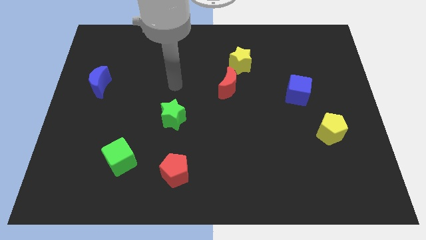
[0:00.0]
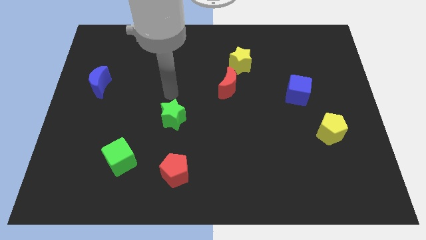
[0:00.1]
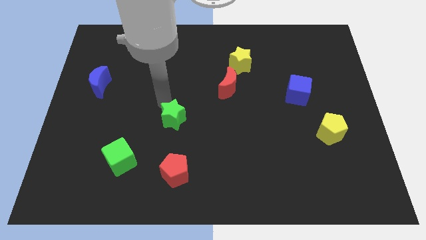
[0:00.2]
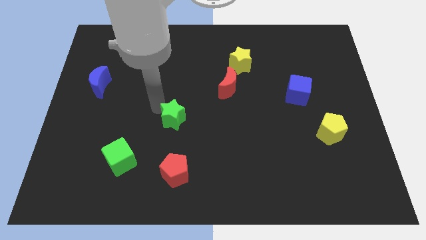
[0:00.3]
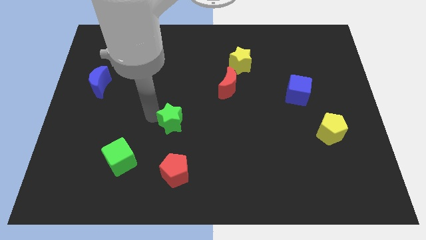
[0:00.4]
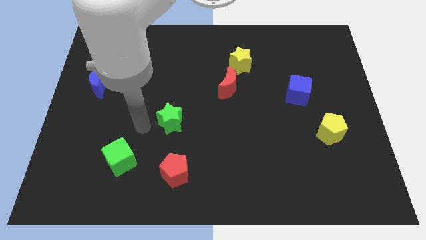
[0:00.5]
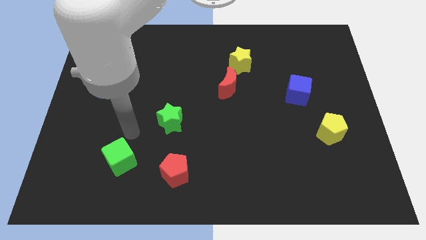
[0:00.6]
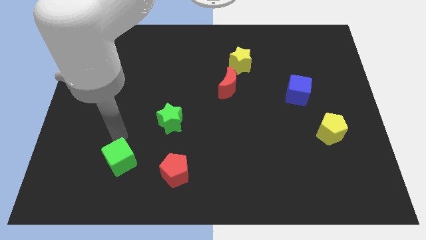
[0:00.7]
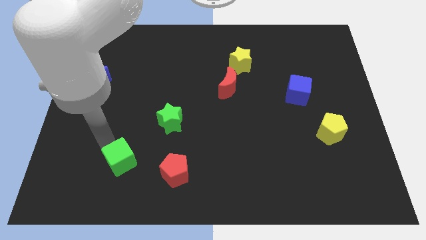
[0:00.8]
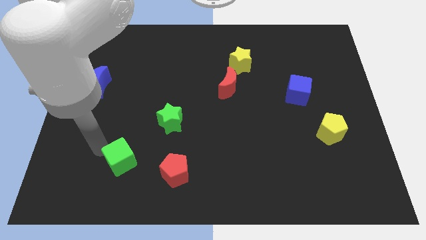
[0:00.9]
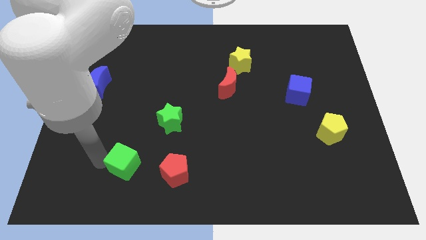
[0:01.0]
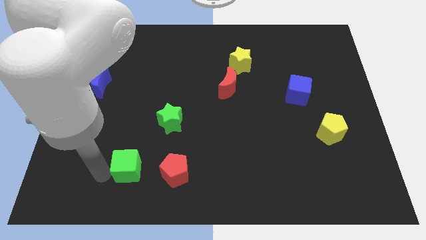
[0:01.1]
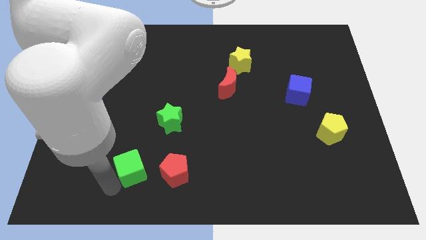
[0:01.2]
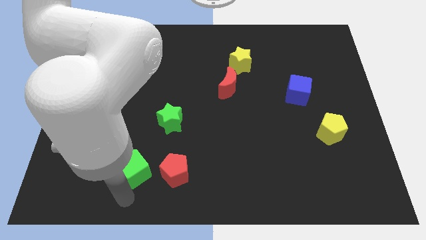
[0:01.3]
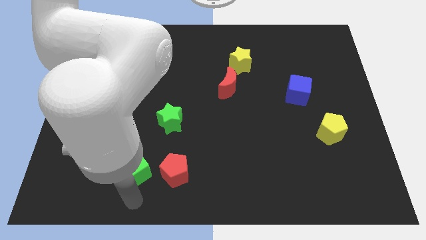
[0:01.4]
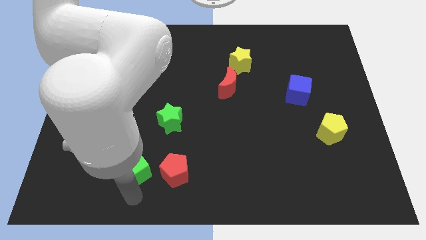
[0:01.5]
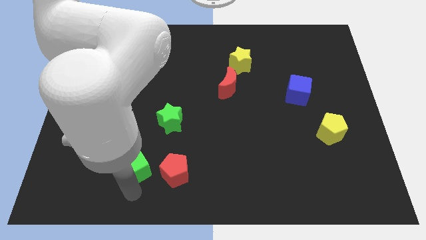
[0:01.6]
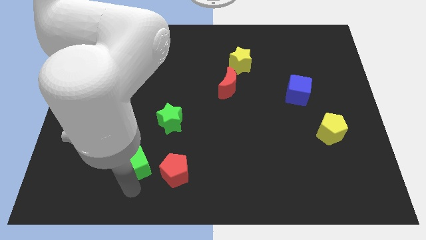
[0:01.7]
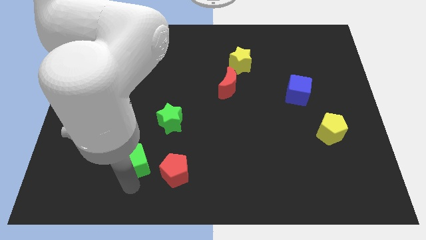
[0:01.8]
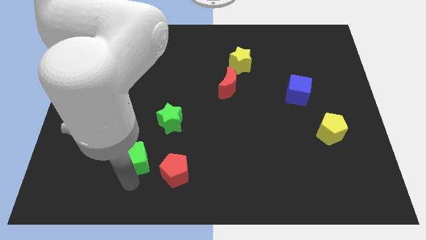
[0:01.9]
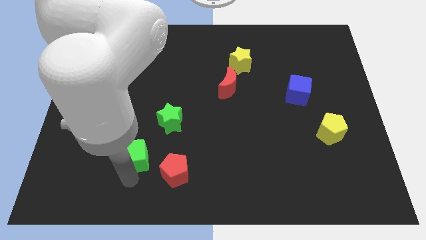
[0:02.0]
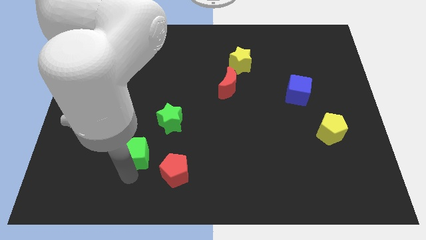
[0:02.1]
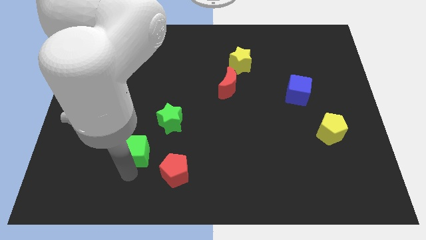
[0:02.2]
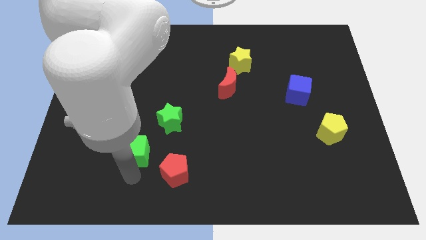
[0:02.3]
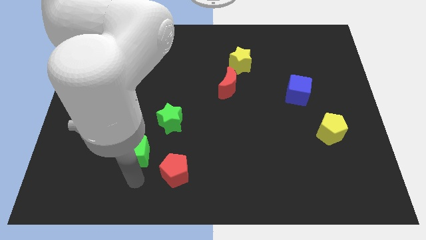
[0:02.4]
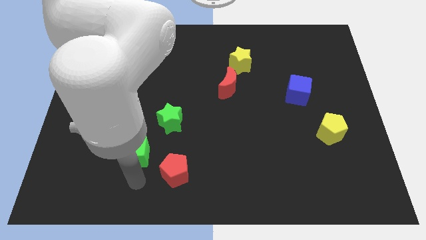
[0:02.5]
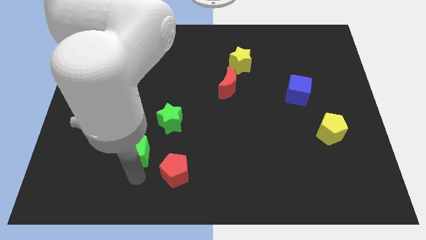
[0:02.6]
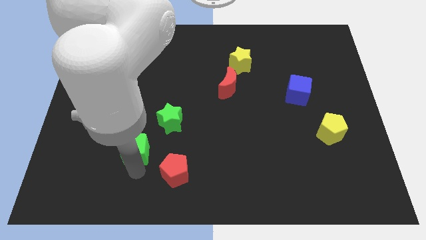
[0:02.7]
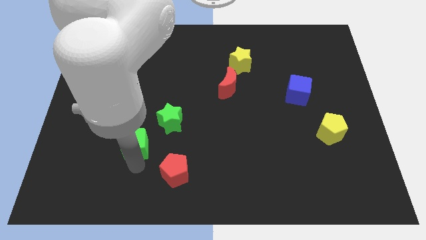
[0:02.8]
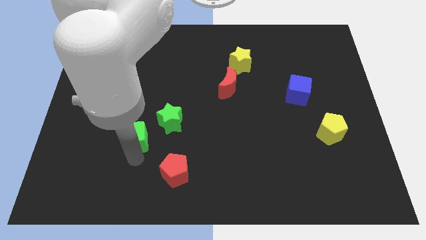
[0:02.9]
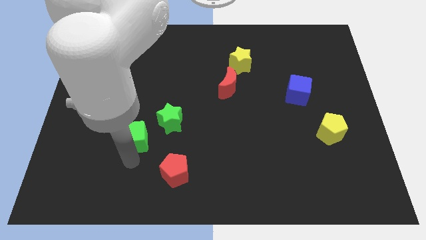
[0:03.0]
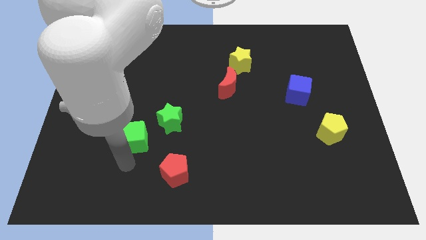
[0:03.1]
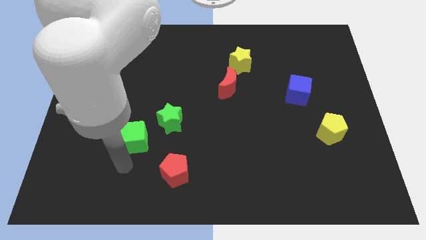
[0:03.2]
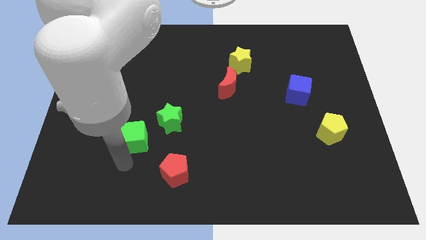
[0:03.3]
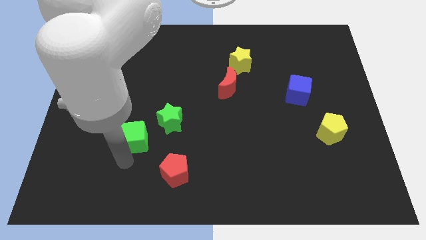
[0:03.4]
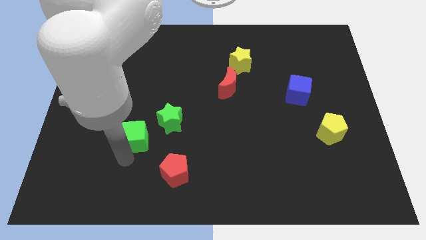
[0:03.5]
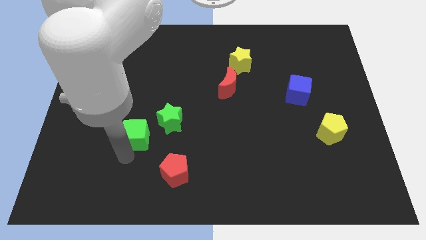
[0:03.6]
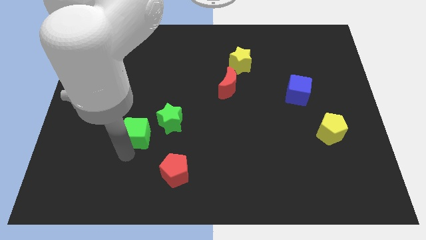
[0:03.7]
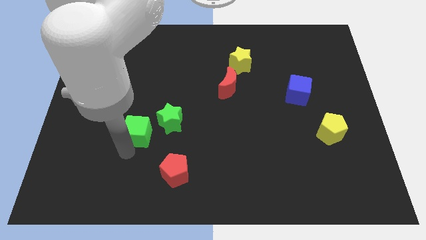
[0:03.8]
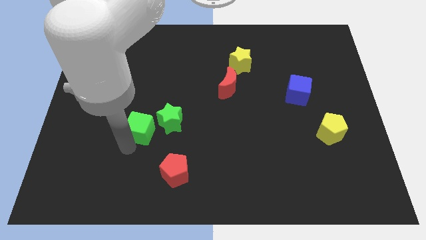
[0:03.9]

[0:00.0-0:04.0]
move the green cube somewhat upwards and to the right

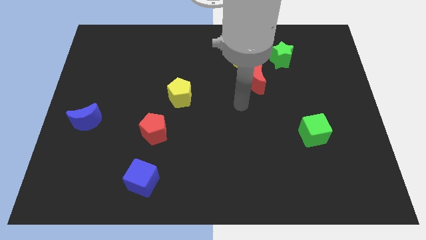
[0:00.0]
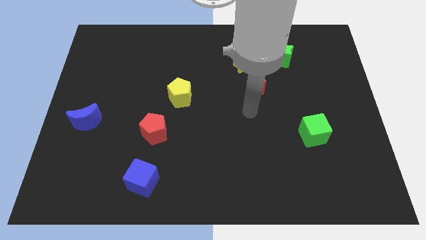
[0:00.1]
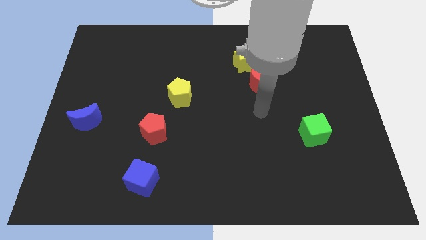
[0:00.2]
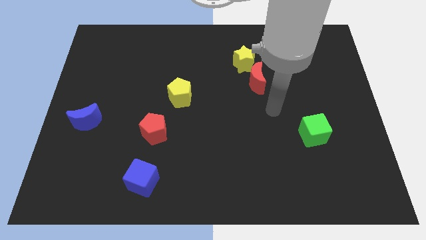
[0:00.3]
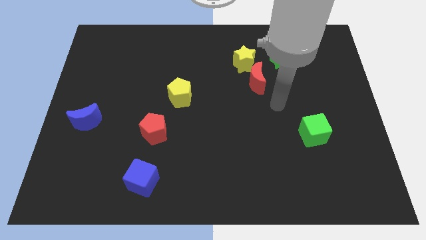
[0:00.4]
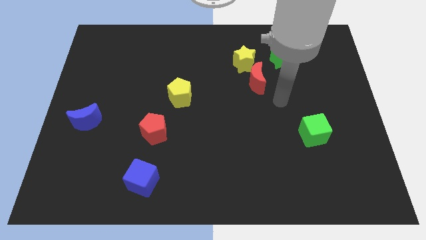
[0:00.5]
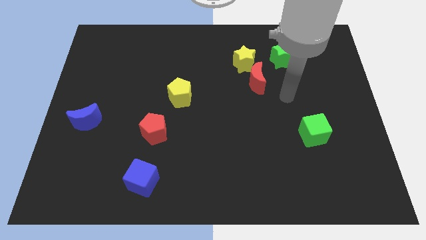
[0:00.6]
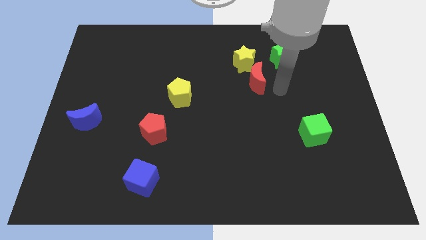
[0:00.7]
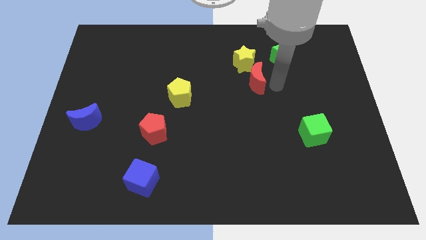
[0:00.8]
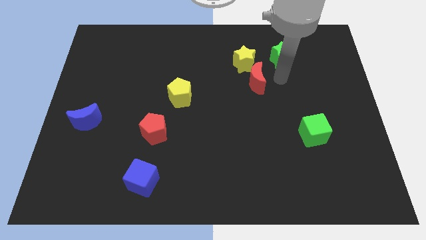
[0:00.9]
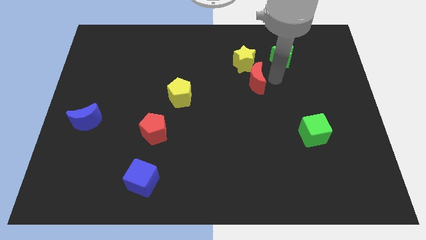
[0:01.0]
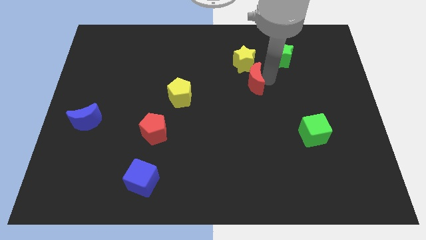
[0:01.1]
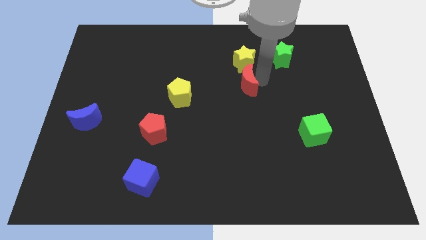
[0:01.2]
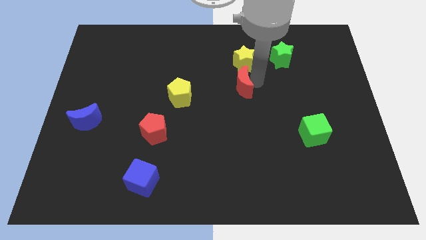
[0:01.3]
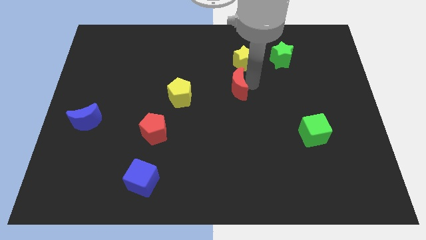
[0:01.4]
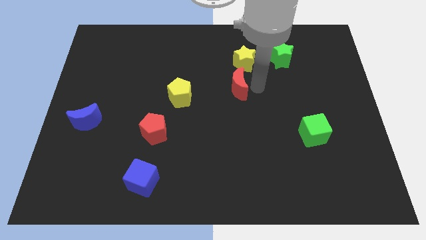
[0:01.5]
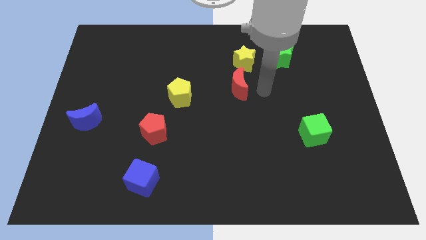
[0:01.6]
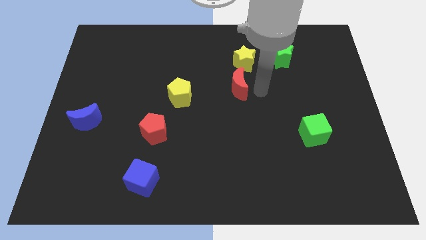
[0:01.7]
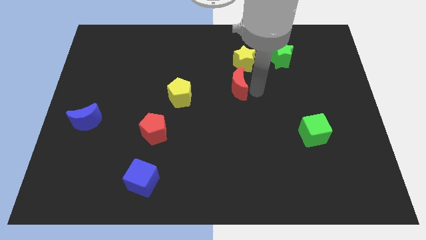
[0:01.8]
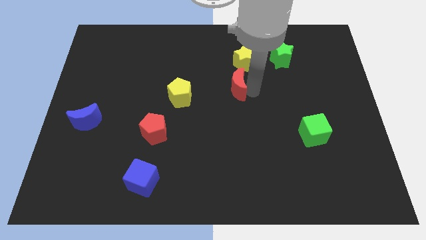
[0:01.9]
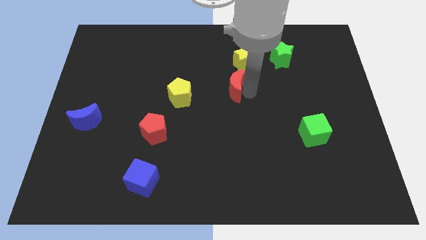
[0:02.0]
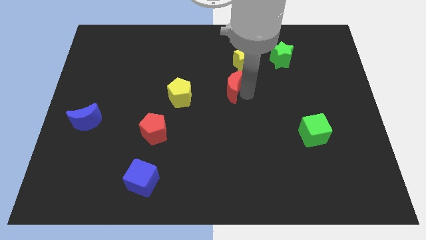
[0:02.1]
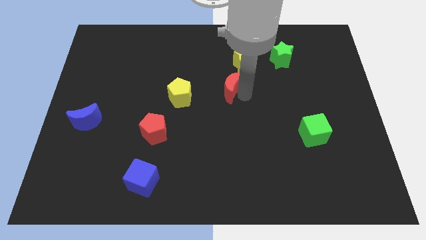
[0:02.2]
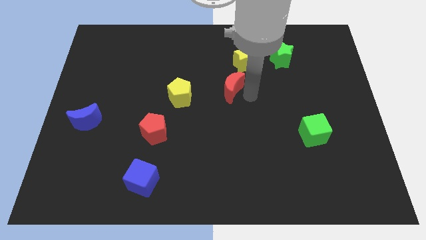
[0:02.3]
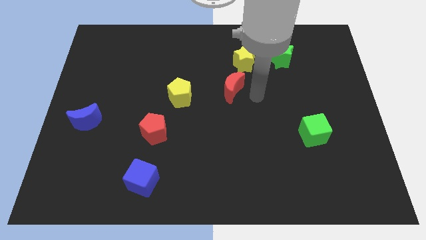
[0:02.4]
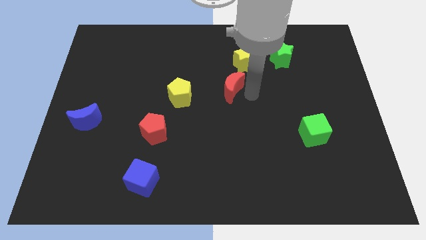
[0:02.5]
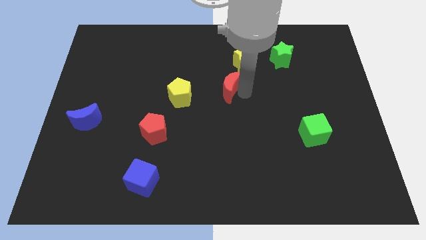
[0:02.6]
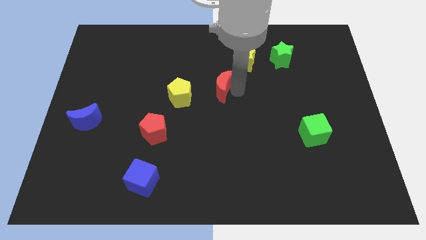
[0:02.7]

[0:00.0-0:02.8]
push the red moon left slightly

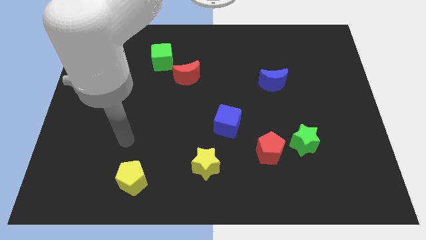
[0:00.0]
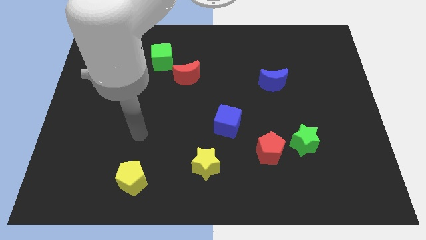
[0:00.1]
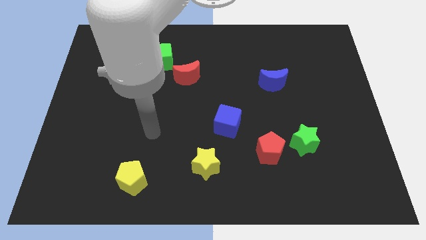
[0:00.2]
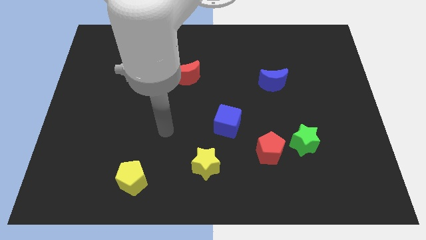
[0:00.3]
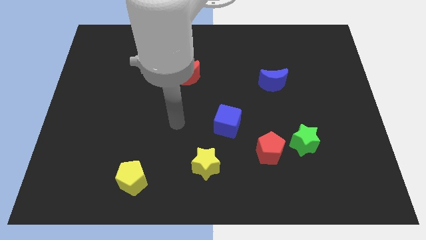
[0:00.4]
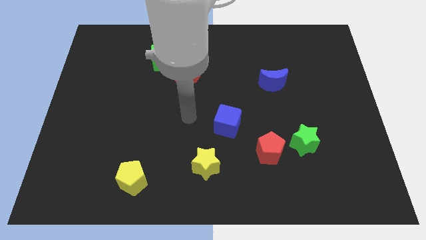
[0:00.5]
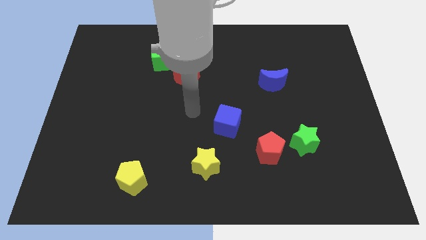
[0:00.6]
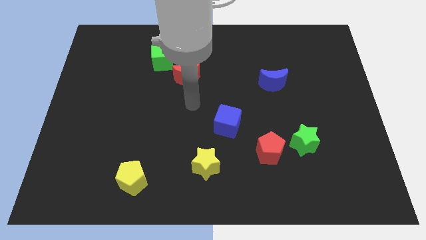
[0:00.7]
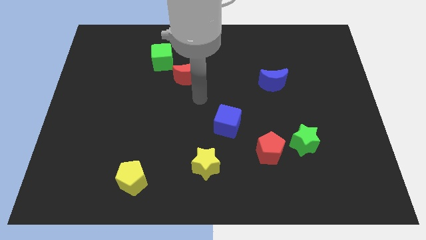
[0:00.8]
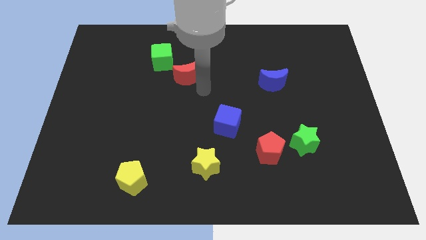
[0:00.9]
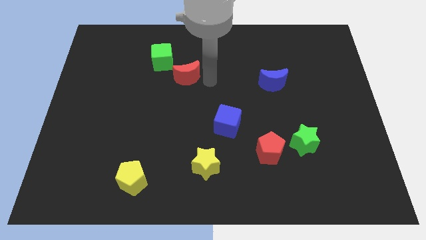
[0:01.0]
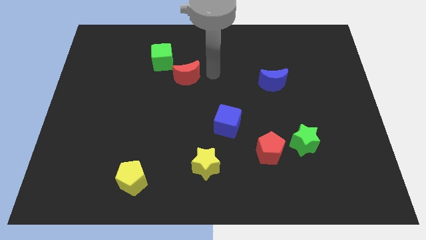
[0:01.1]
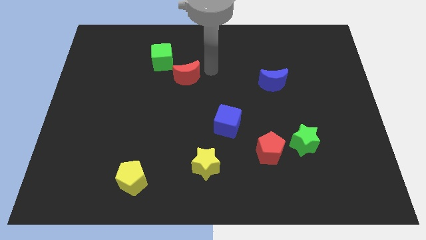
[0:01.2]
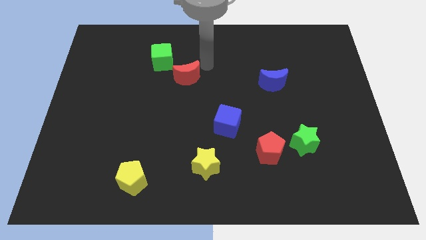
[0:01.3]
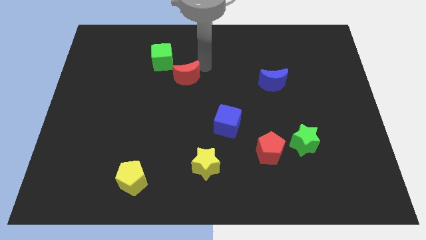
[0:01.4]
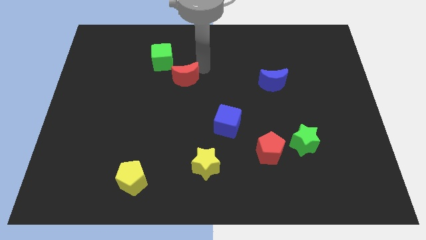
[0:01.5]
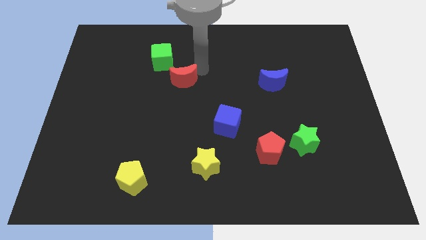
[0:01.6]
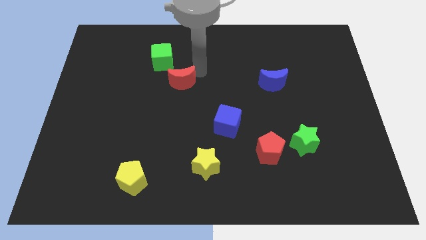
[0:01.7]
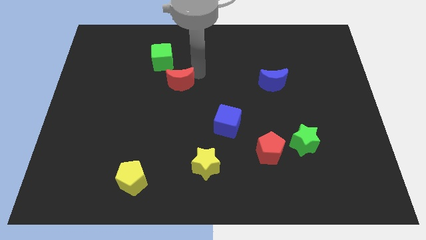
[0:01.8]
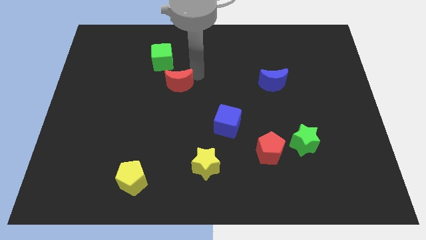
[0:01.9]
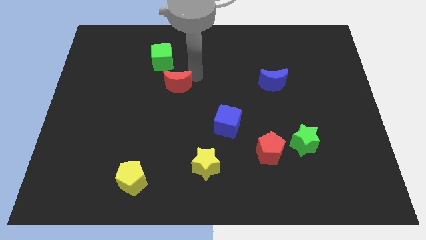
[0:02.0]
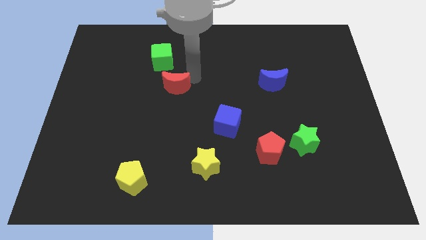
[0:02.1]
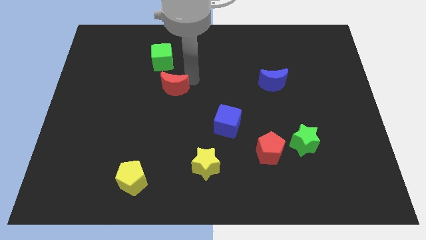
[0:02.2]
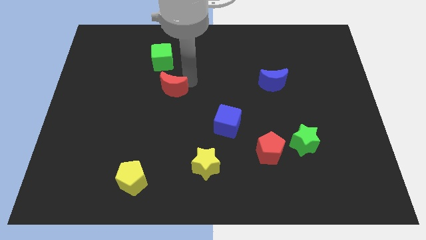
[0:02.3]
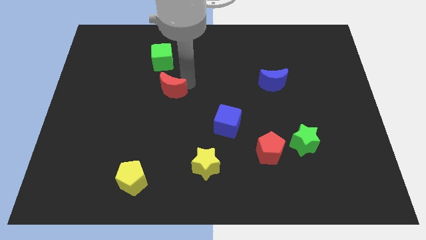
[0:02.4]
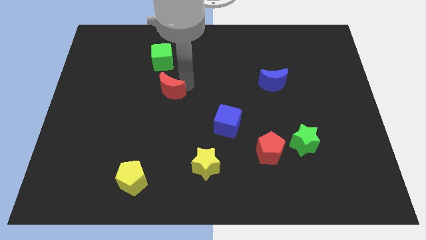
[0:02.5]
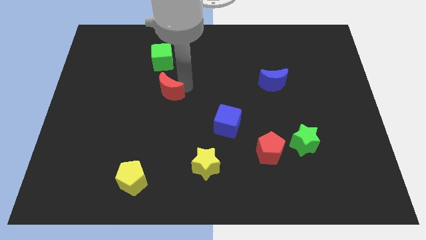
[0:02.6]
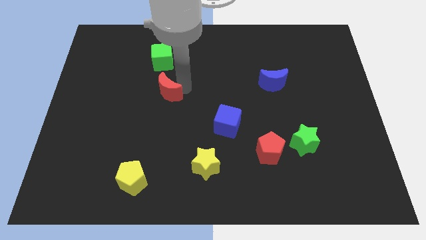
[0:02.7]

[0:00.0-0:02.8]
slide the red moon a little down and to the left diagonally
